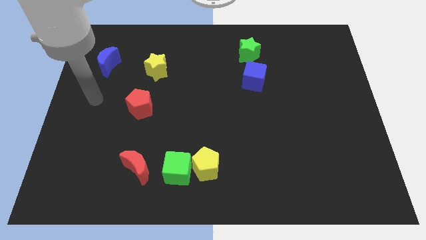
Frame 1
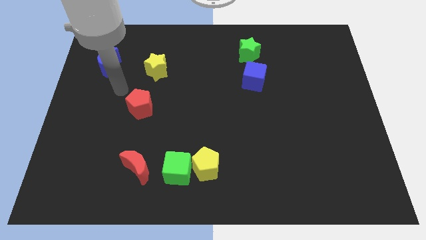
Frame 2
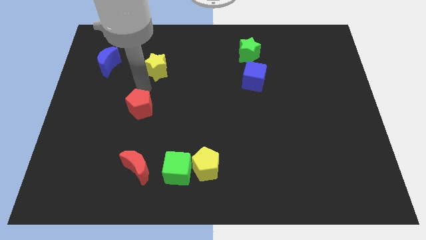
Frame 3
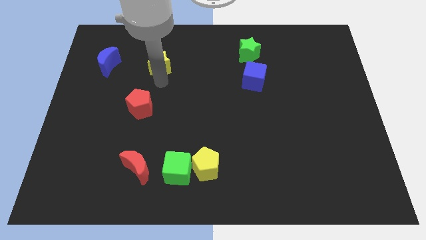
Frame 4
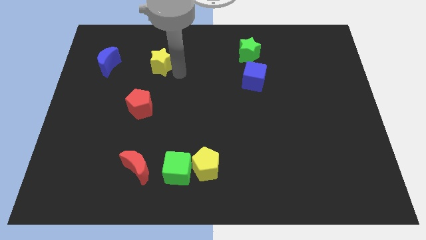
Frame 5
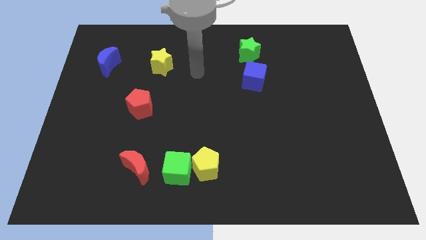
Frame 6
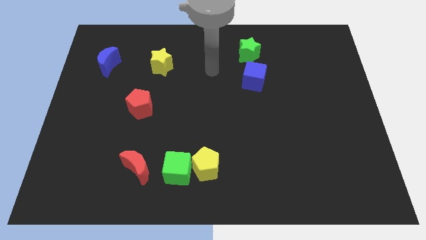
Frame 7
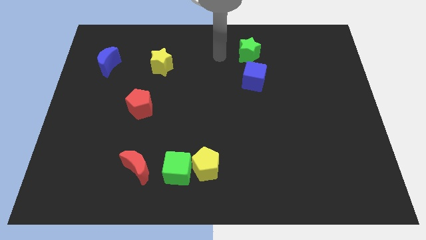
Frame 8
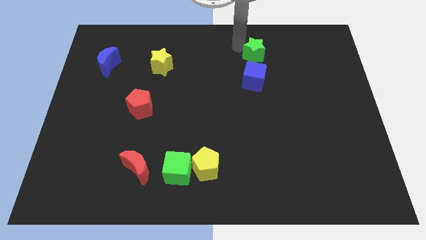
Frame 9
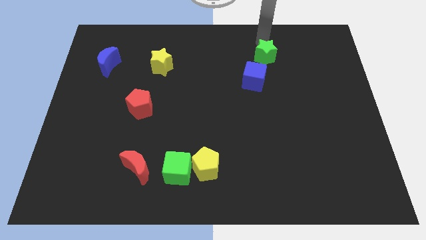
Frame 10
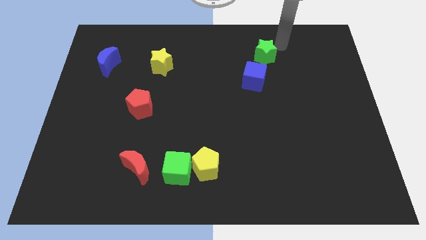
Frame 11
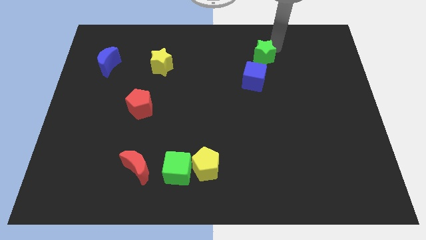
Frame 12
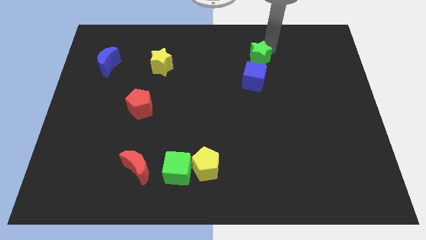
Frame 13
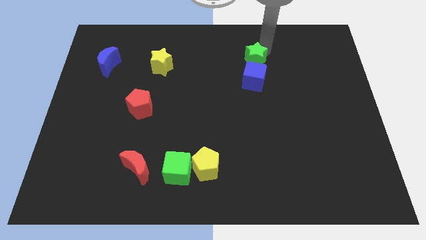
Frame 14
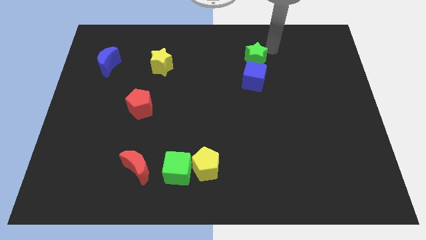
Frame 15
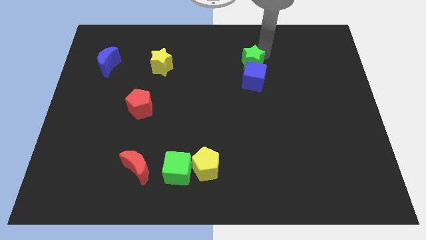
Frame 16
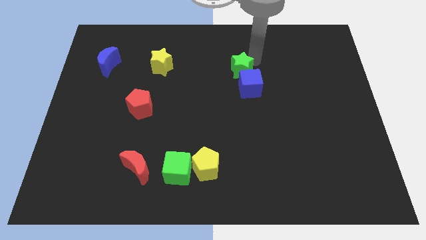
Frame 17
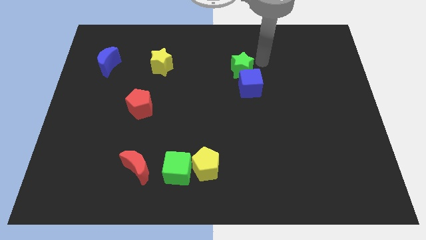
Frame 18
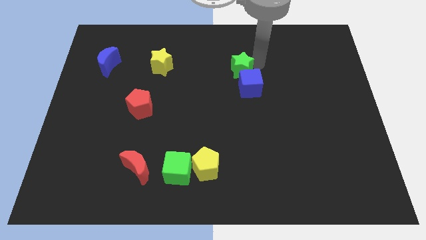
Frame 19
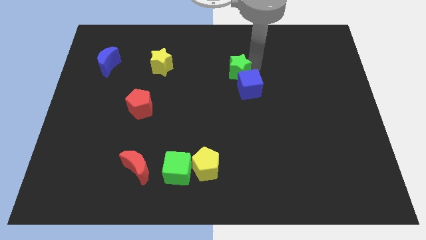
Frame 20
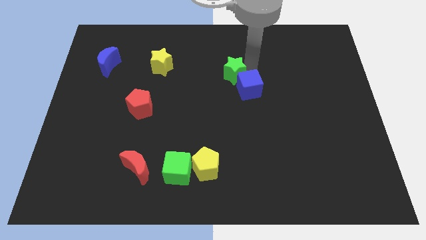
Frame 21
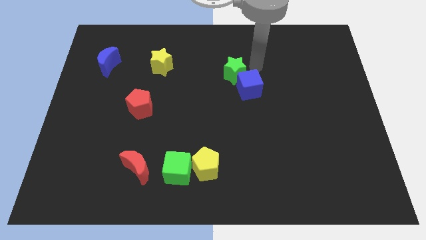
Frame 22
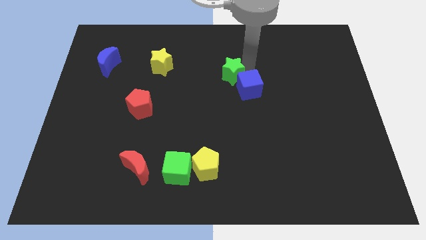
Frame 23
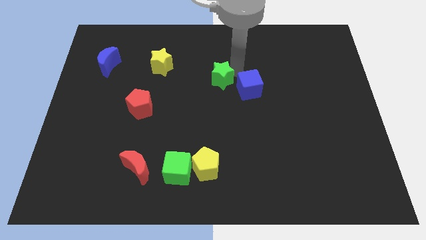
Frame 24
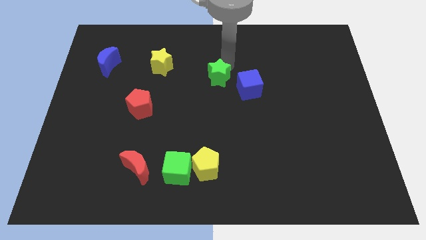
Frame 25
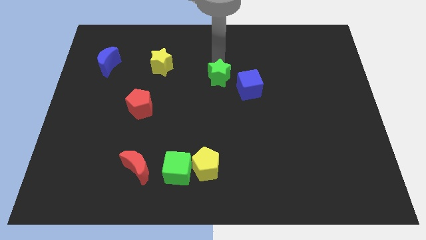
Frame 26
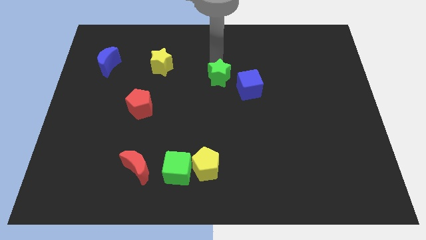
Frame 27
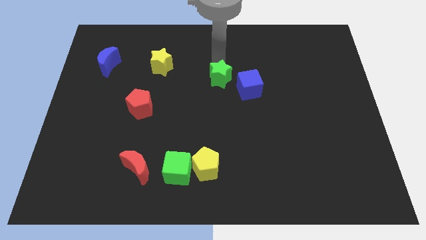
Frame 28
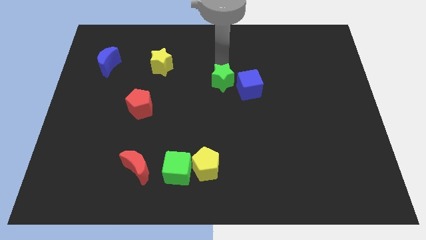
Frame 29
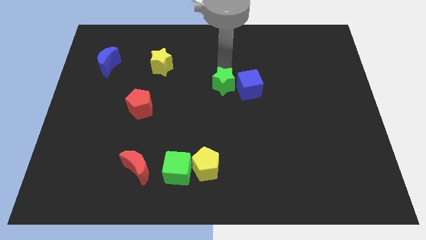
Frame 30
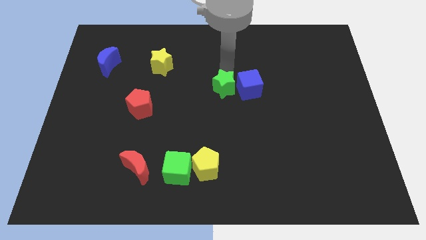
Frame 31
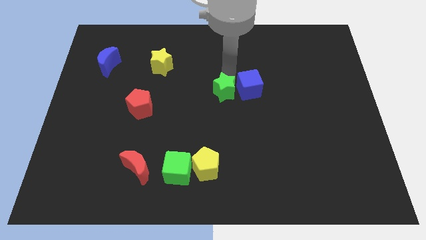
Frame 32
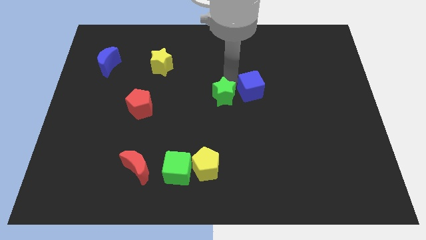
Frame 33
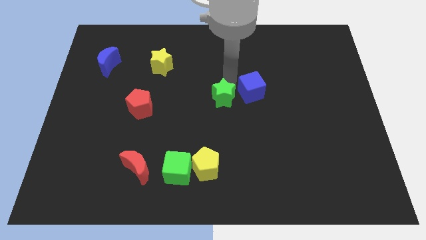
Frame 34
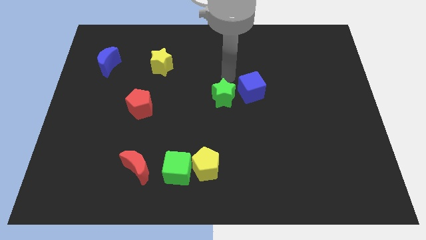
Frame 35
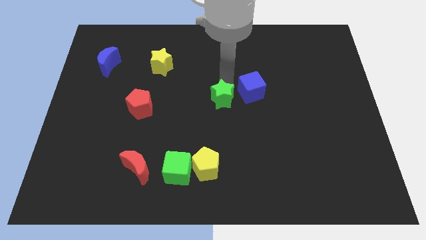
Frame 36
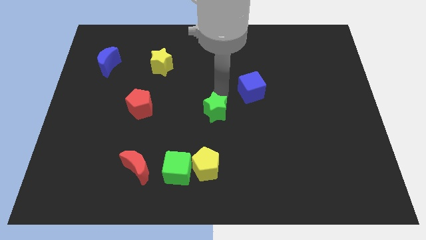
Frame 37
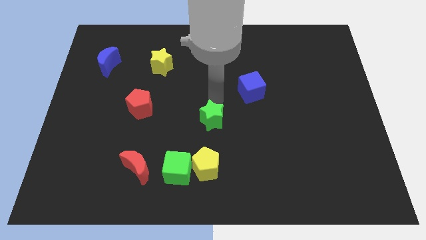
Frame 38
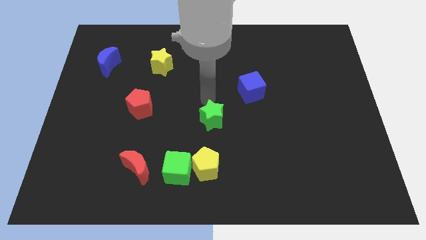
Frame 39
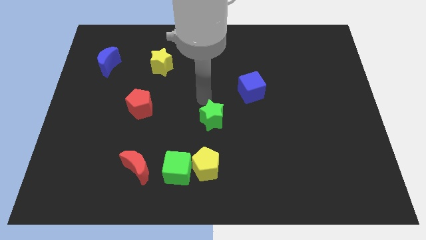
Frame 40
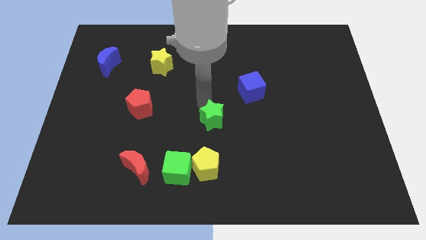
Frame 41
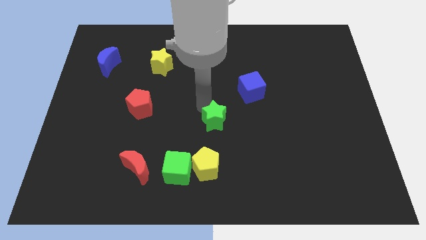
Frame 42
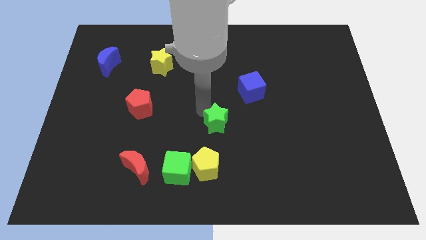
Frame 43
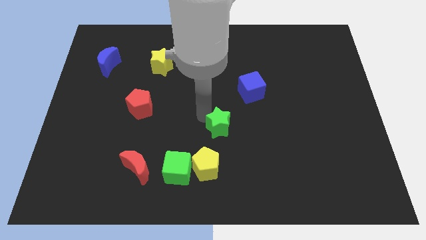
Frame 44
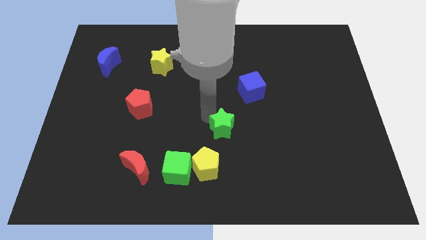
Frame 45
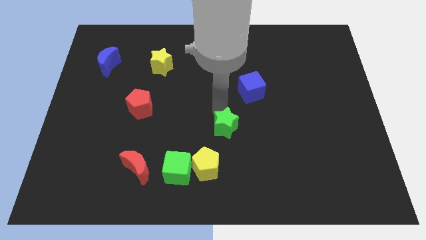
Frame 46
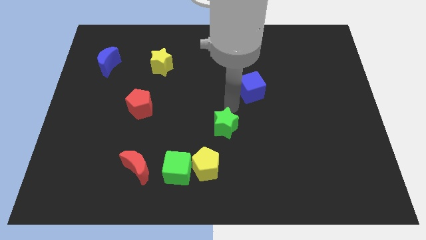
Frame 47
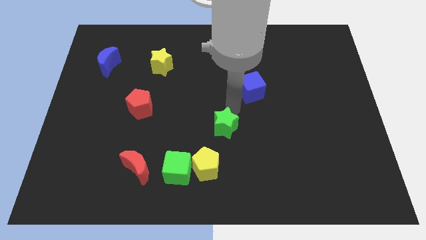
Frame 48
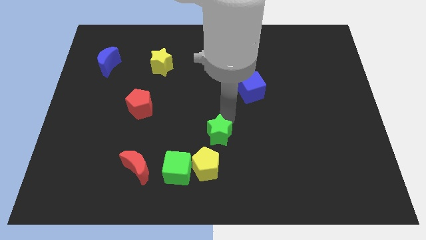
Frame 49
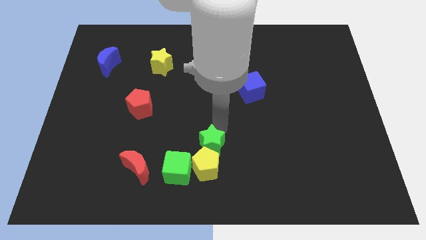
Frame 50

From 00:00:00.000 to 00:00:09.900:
move the green star towards the yellow pentagon

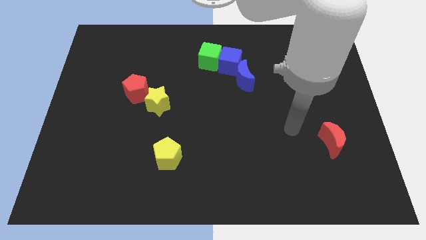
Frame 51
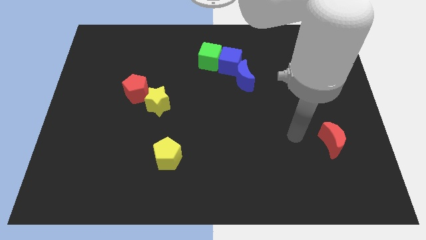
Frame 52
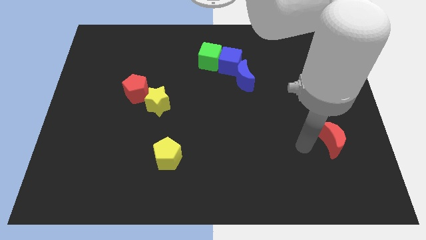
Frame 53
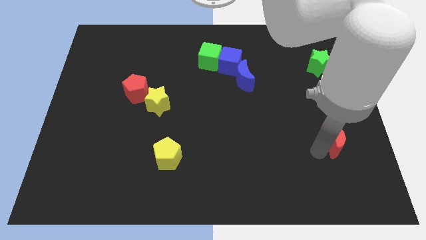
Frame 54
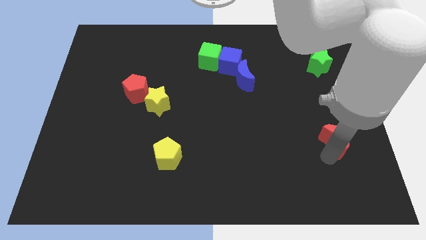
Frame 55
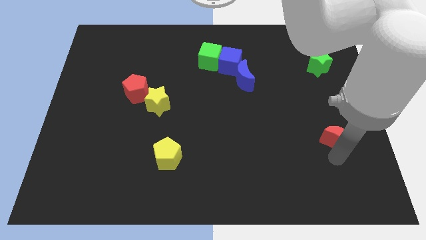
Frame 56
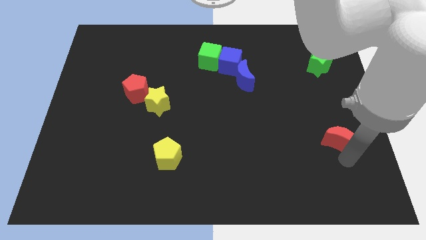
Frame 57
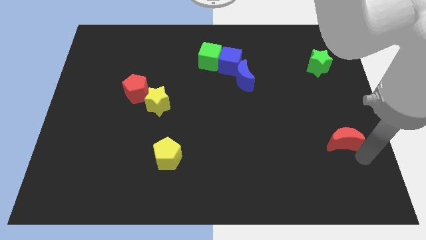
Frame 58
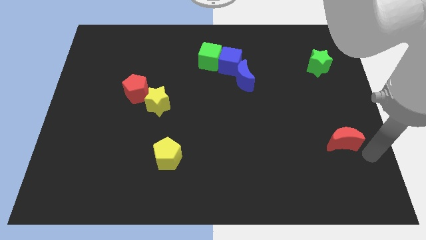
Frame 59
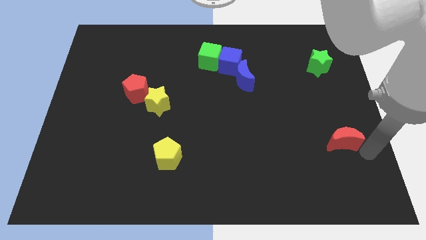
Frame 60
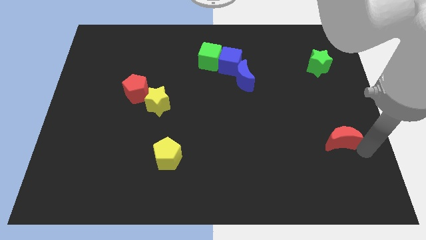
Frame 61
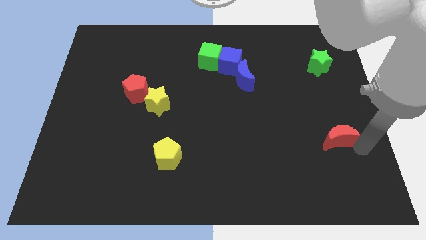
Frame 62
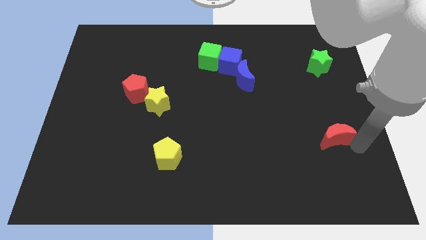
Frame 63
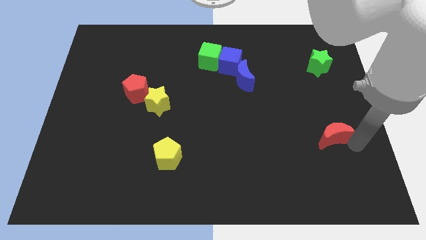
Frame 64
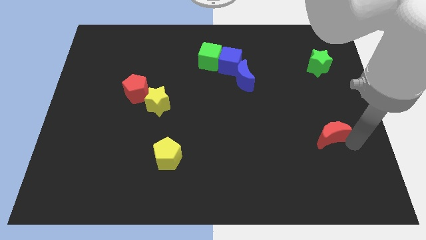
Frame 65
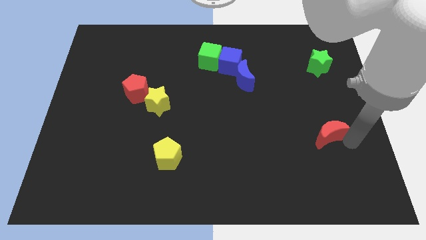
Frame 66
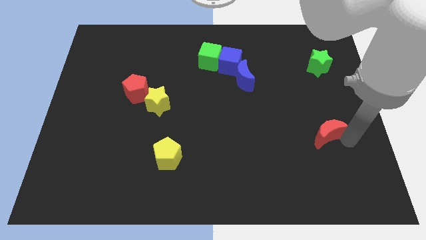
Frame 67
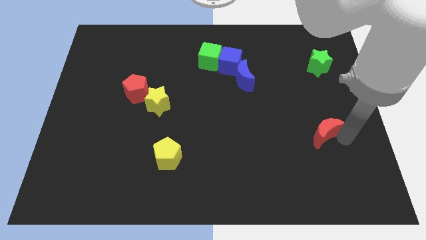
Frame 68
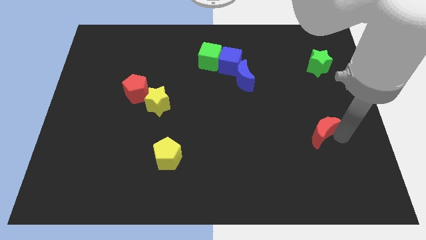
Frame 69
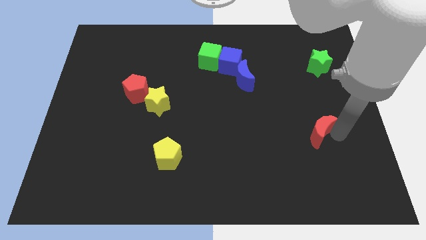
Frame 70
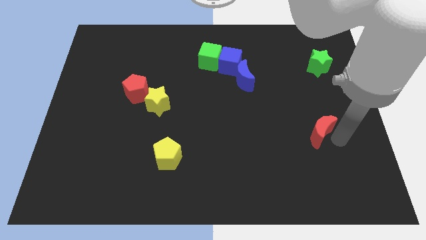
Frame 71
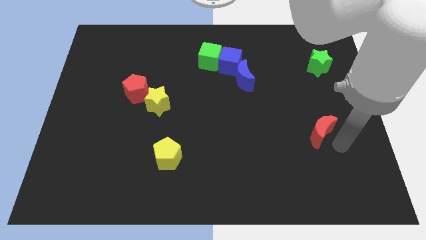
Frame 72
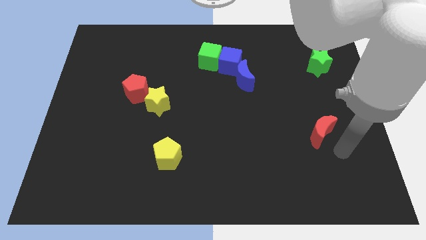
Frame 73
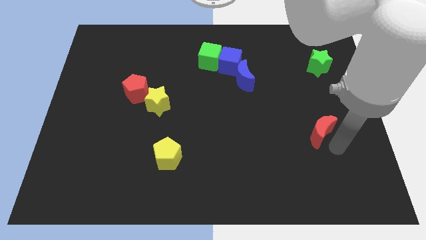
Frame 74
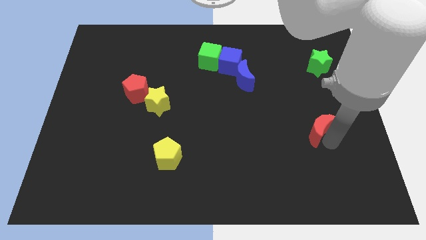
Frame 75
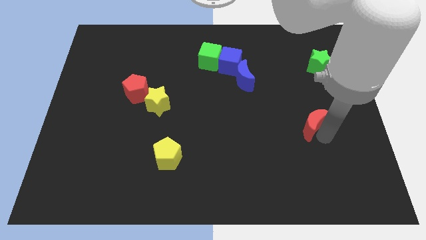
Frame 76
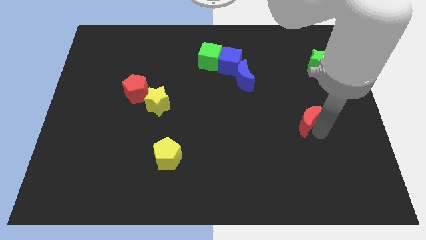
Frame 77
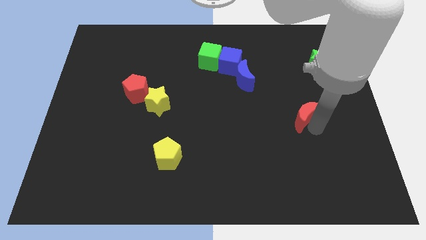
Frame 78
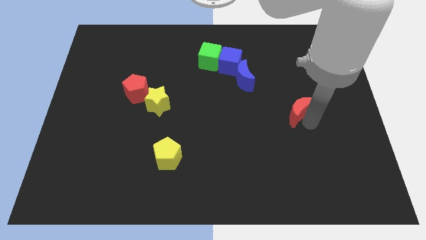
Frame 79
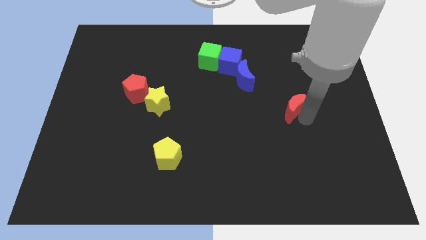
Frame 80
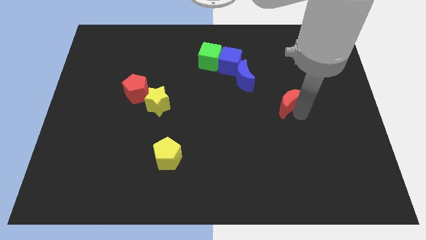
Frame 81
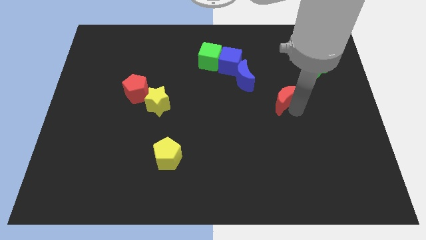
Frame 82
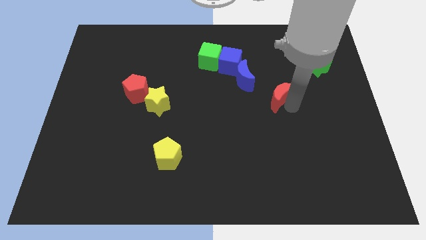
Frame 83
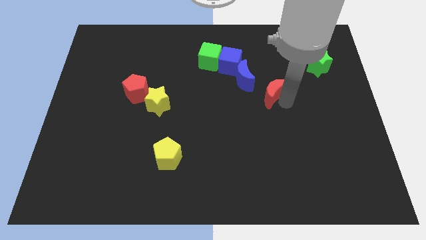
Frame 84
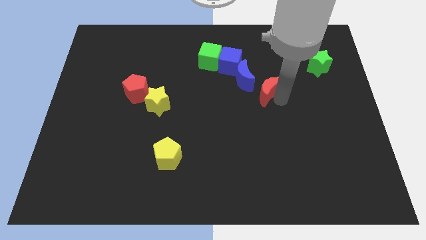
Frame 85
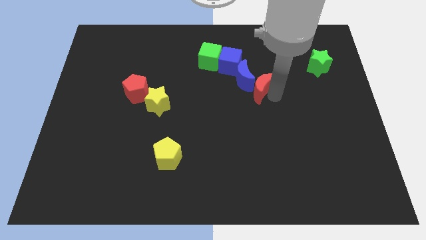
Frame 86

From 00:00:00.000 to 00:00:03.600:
put the red moon to the blue moon
